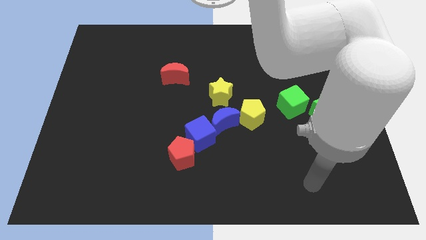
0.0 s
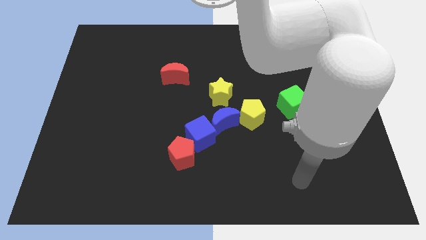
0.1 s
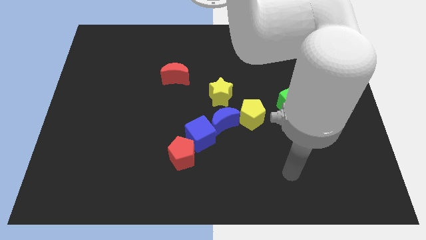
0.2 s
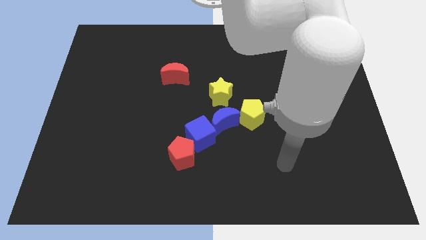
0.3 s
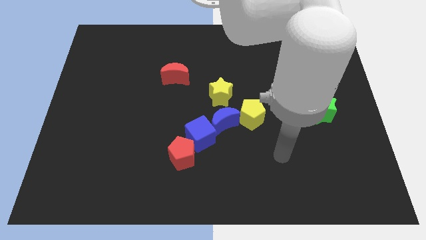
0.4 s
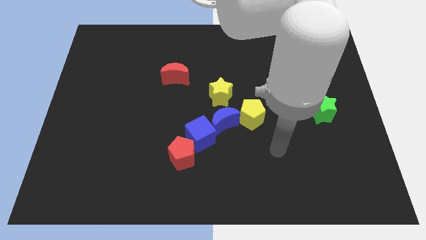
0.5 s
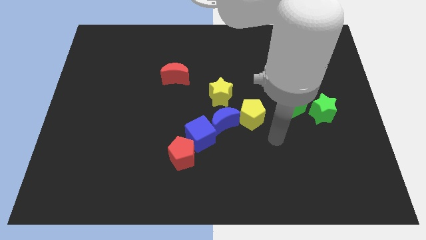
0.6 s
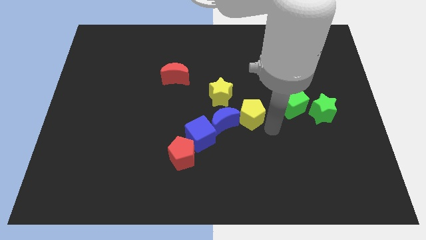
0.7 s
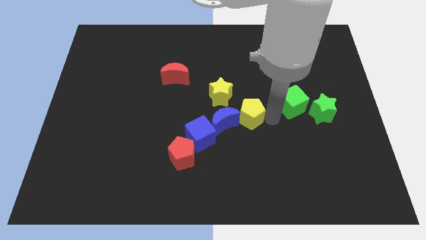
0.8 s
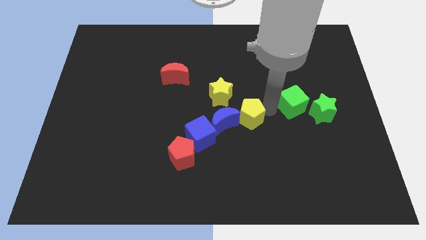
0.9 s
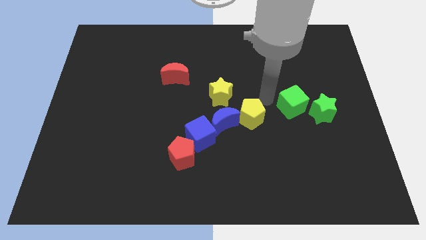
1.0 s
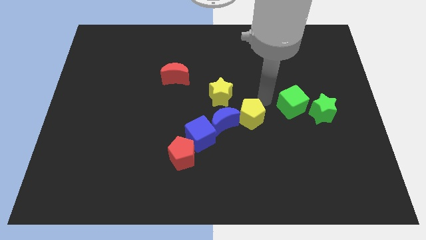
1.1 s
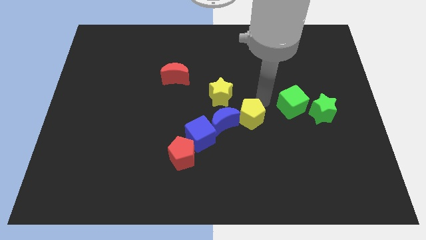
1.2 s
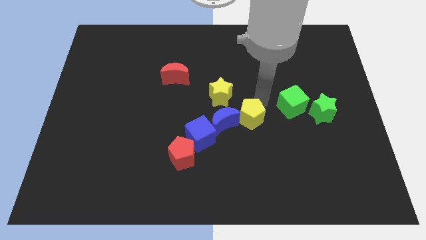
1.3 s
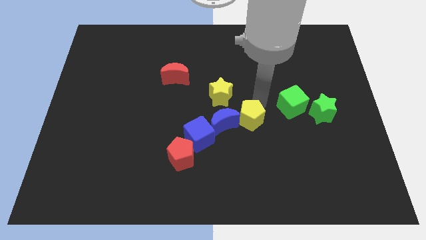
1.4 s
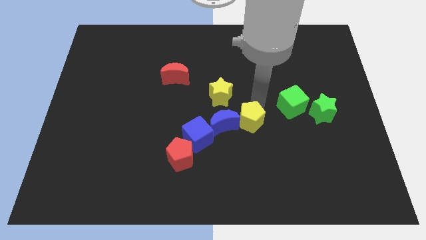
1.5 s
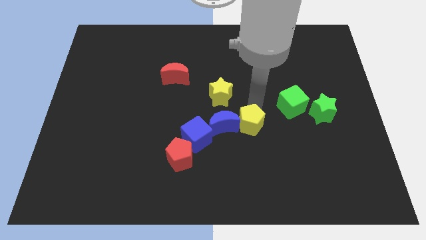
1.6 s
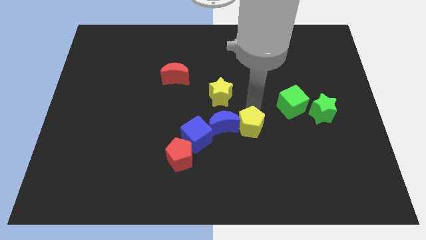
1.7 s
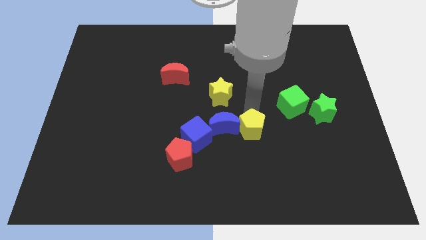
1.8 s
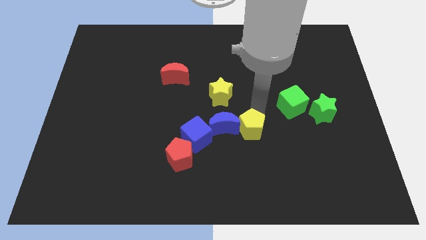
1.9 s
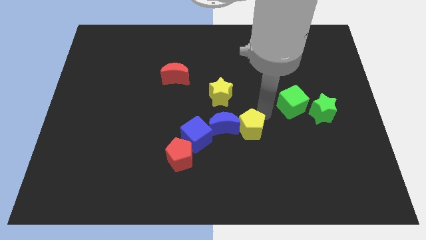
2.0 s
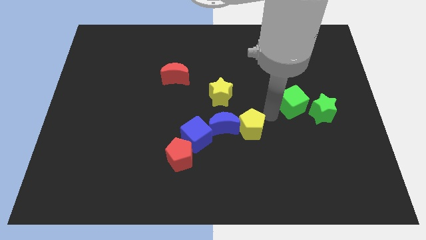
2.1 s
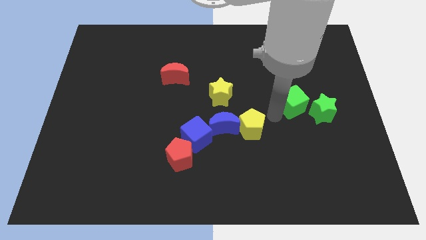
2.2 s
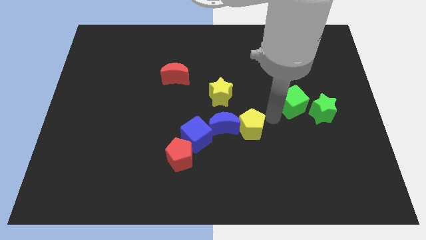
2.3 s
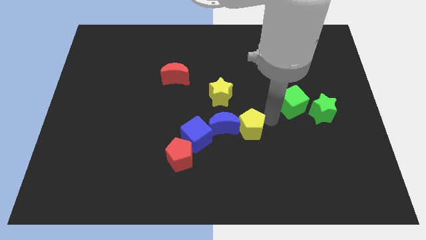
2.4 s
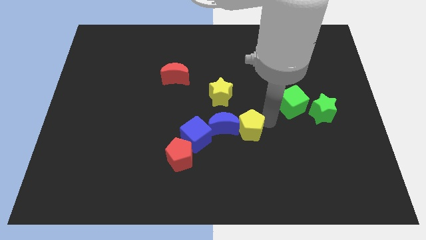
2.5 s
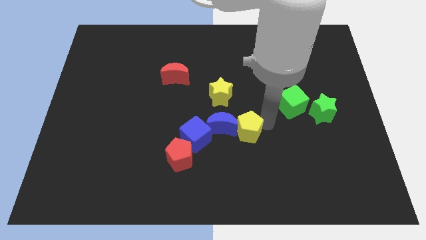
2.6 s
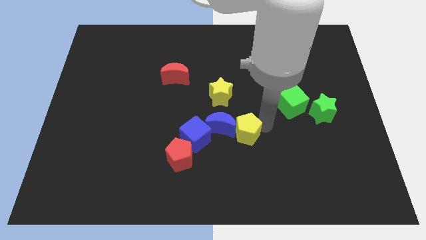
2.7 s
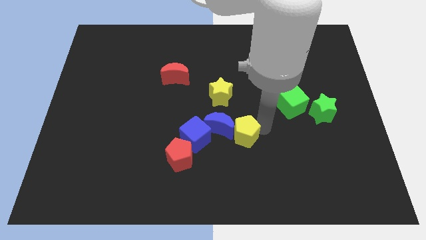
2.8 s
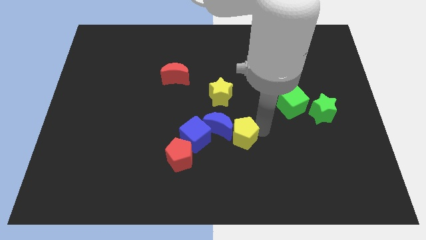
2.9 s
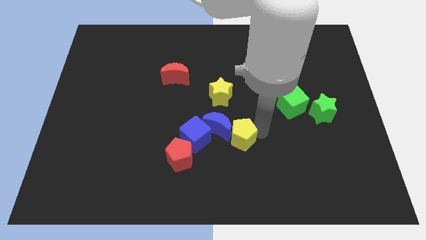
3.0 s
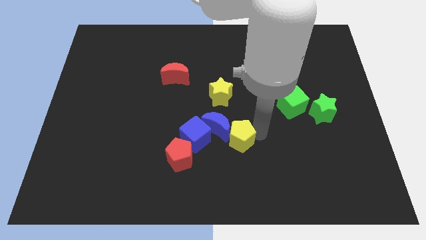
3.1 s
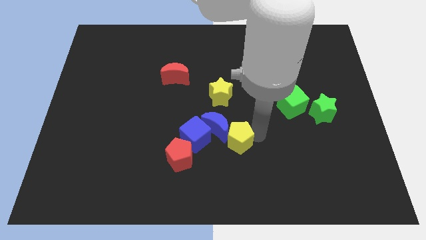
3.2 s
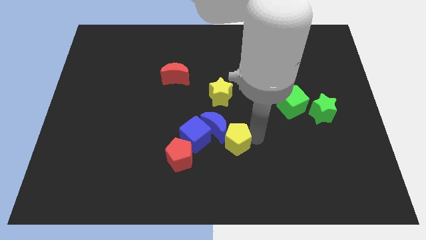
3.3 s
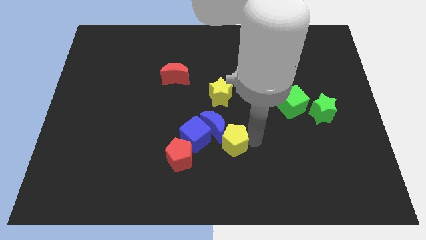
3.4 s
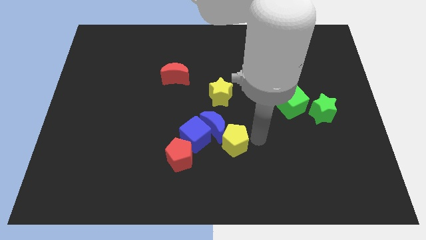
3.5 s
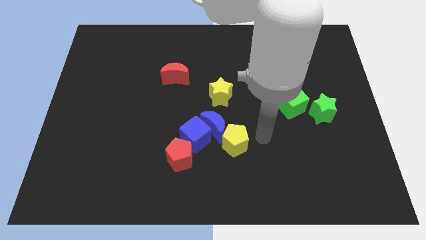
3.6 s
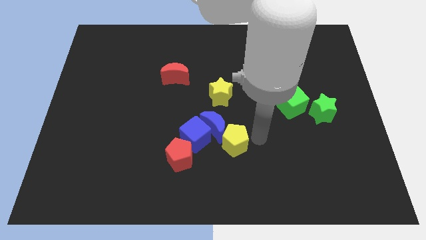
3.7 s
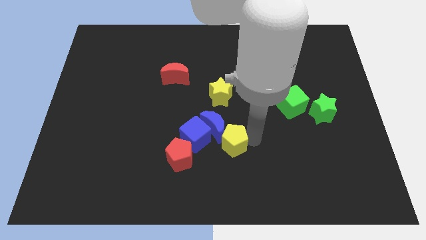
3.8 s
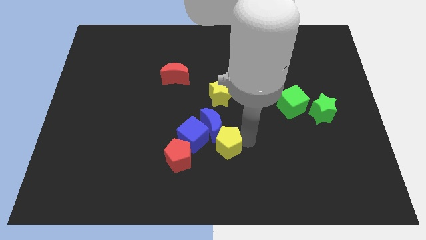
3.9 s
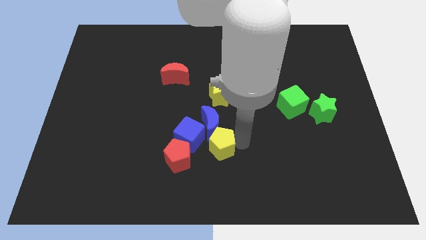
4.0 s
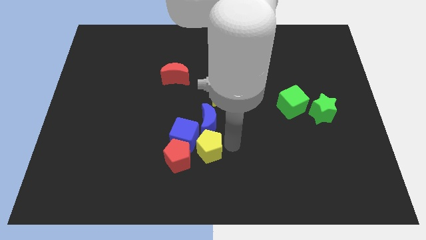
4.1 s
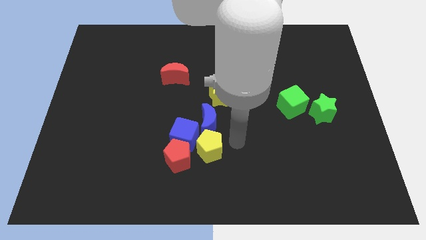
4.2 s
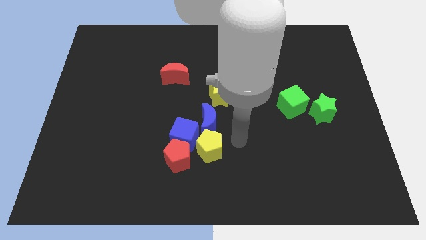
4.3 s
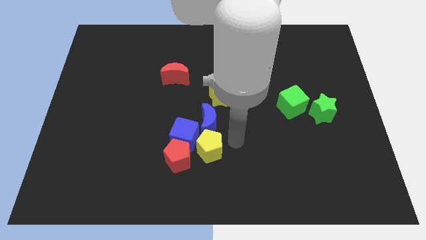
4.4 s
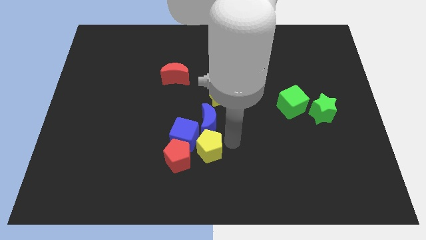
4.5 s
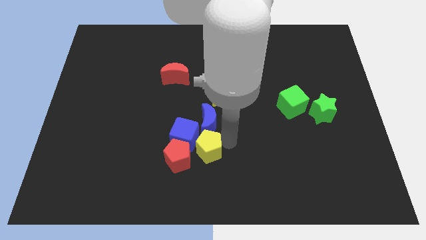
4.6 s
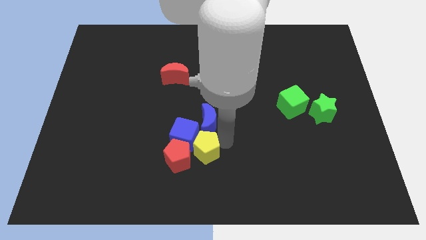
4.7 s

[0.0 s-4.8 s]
push the yellow pentagon to the red pentagon

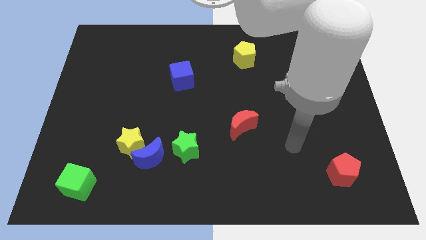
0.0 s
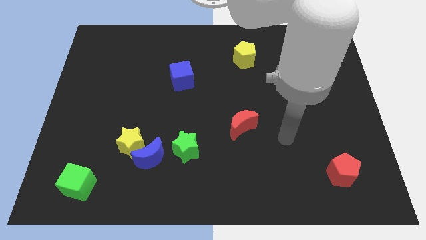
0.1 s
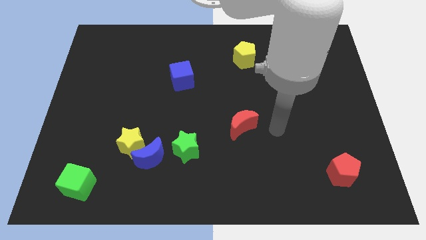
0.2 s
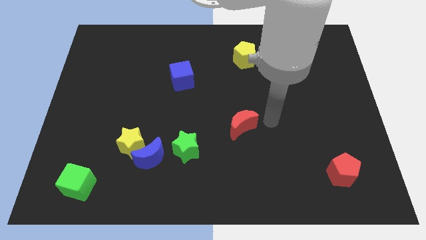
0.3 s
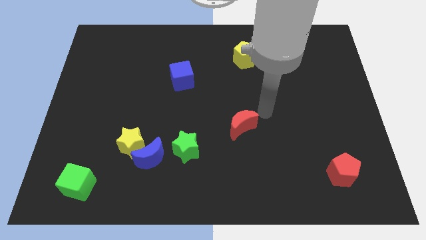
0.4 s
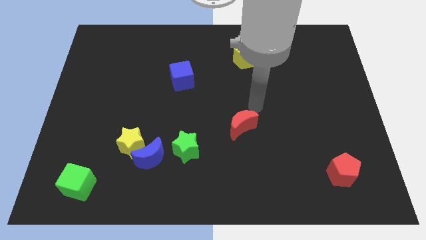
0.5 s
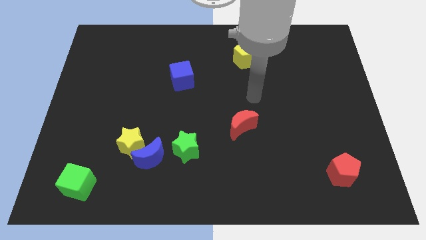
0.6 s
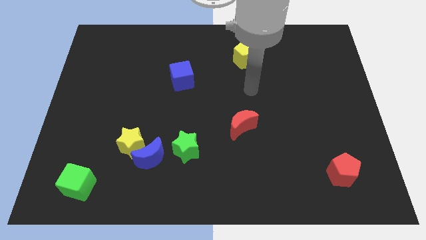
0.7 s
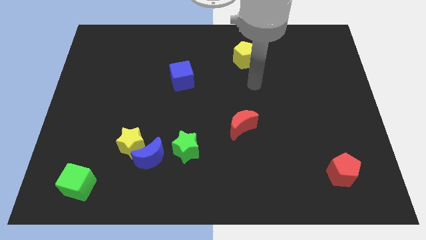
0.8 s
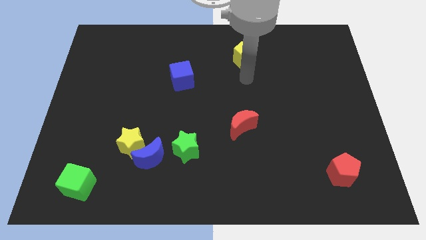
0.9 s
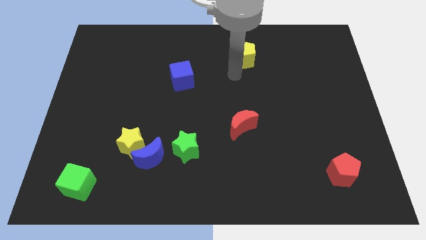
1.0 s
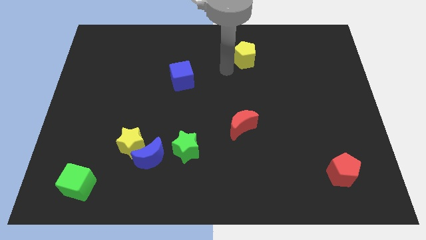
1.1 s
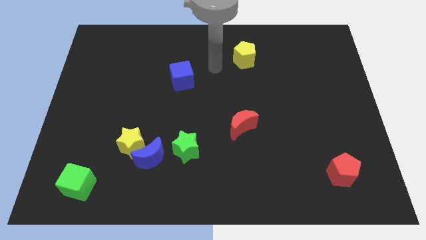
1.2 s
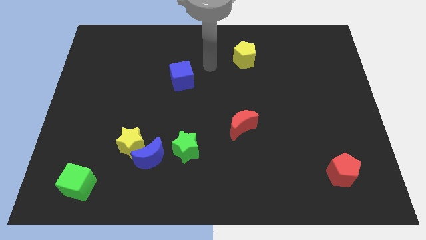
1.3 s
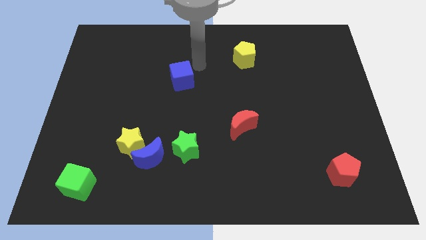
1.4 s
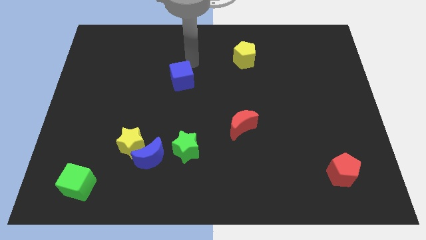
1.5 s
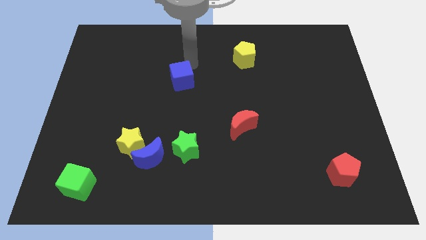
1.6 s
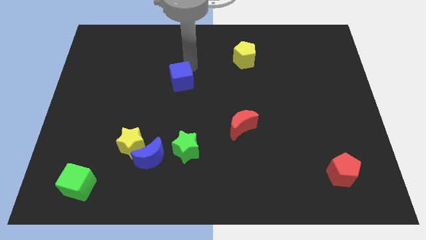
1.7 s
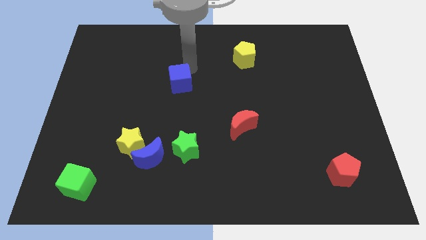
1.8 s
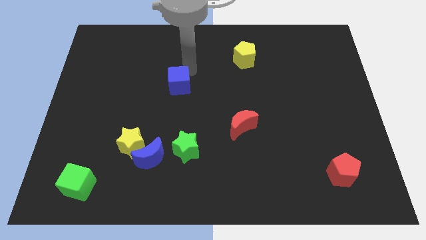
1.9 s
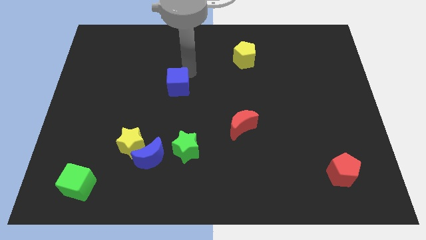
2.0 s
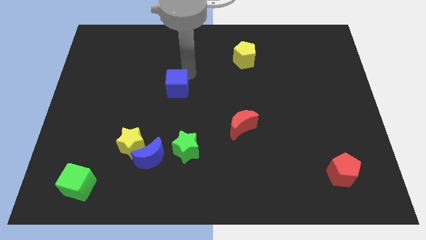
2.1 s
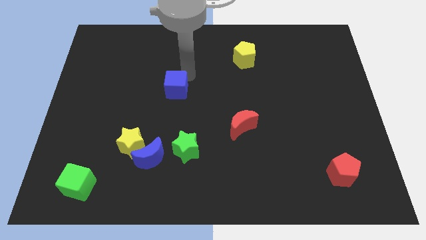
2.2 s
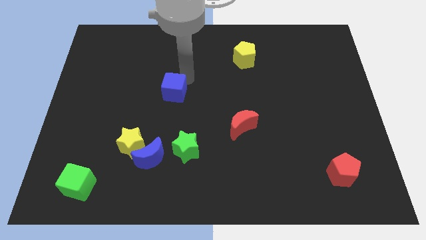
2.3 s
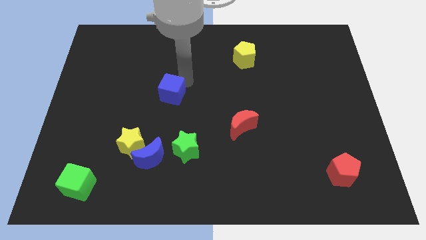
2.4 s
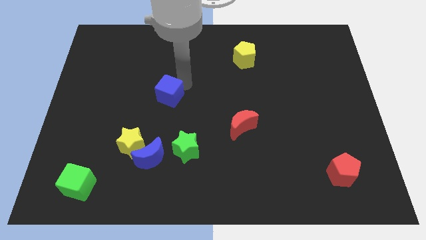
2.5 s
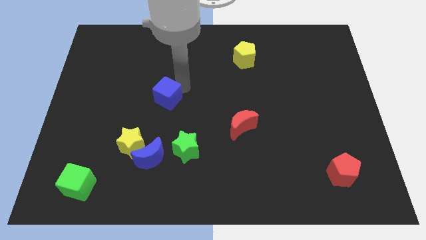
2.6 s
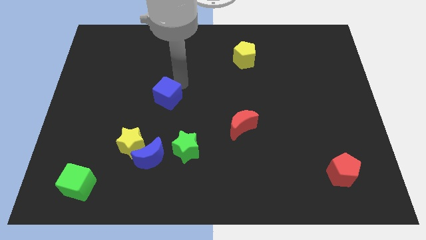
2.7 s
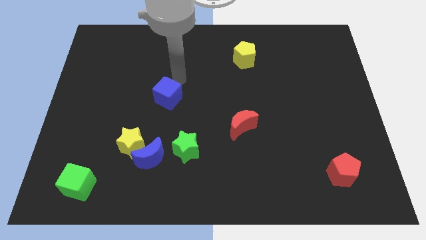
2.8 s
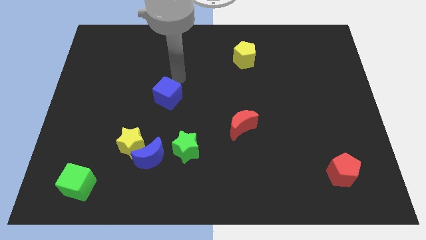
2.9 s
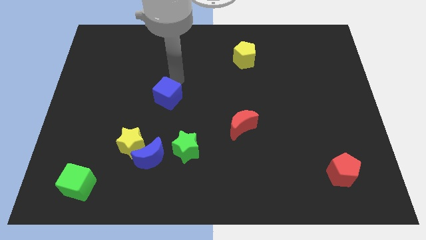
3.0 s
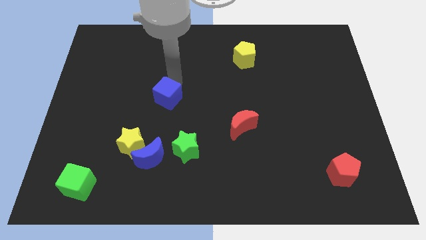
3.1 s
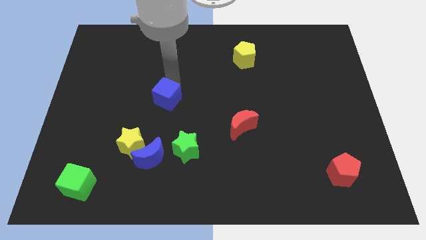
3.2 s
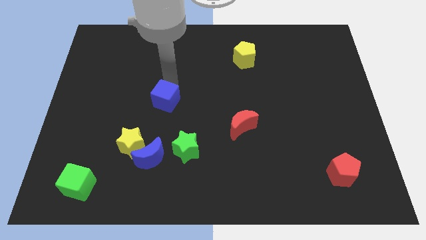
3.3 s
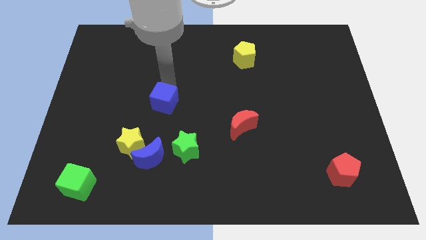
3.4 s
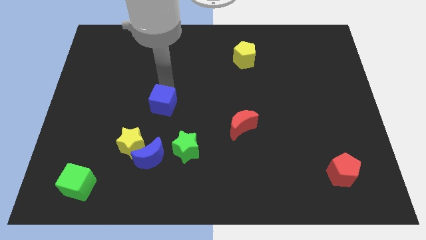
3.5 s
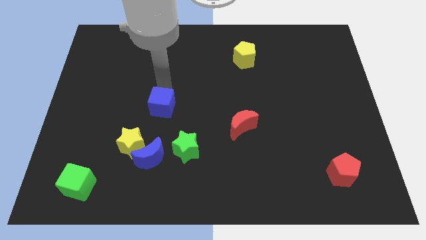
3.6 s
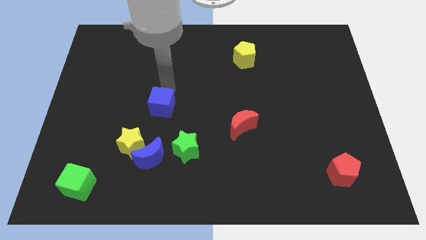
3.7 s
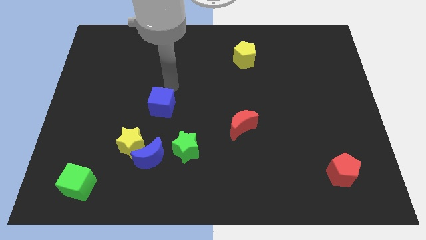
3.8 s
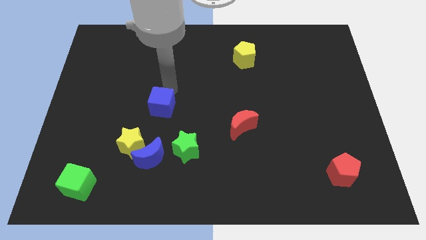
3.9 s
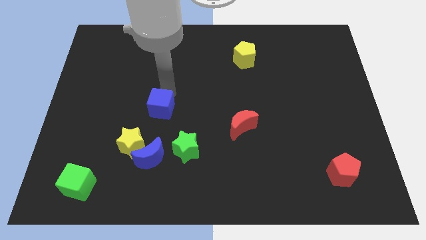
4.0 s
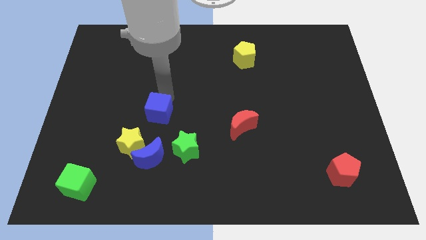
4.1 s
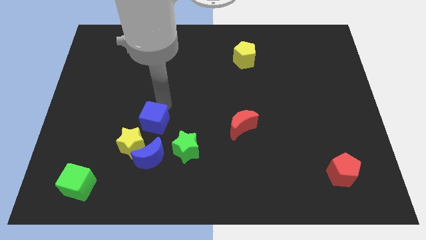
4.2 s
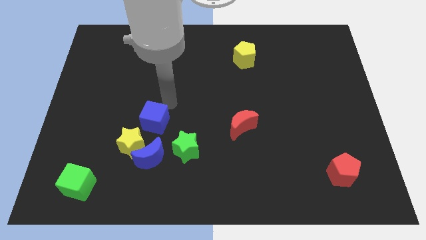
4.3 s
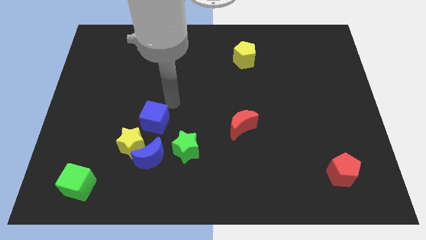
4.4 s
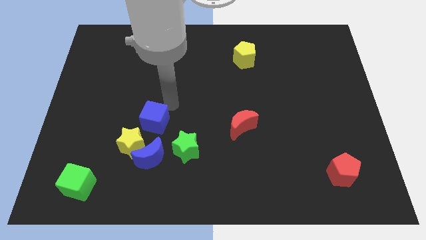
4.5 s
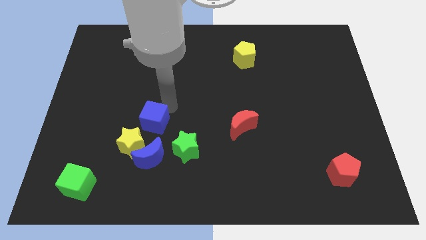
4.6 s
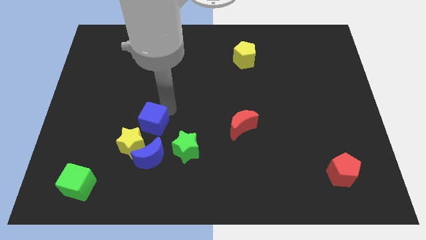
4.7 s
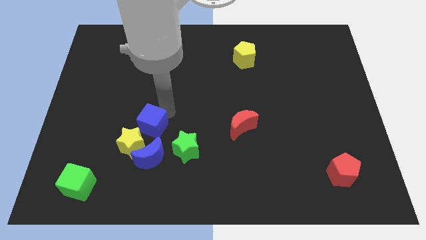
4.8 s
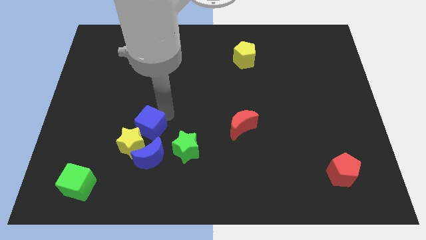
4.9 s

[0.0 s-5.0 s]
push the blue cube next to the yellow star
